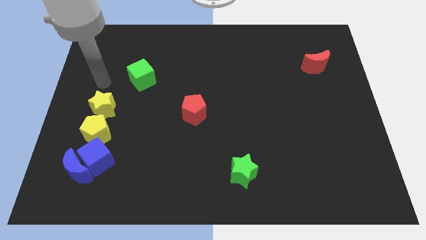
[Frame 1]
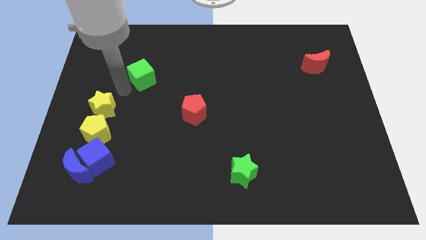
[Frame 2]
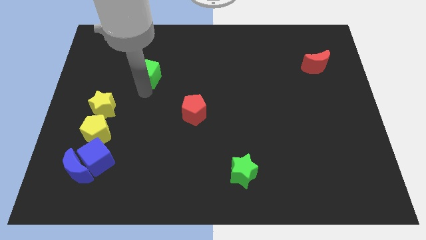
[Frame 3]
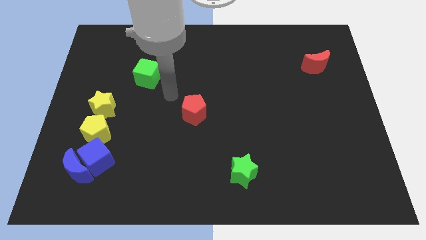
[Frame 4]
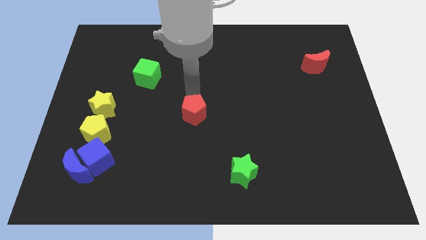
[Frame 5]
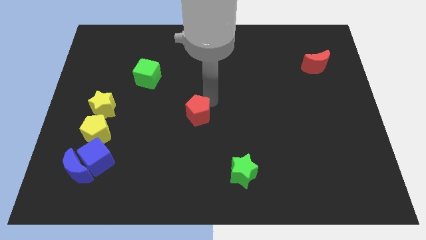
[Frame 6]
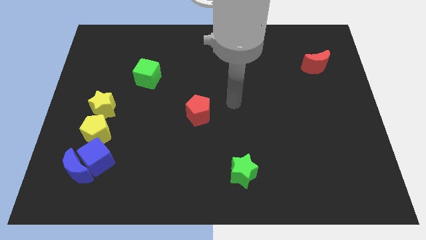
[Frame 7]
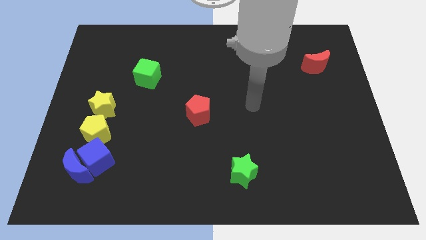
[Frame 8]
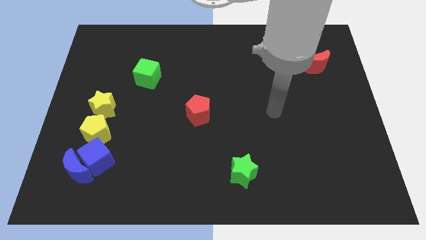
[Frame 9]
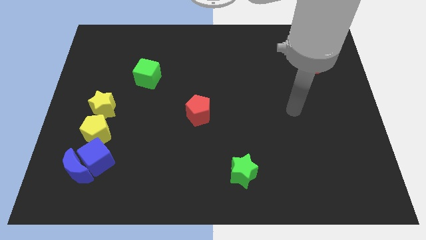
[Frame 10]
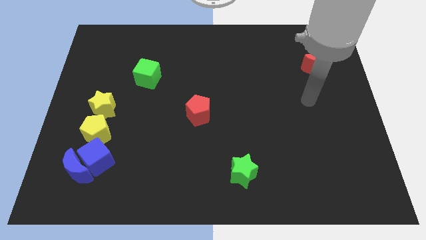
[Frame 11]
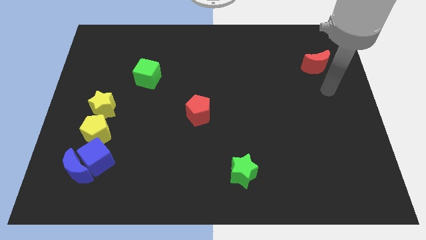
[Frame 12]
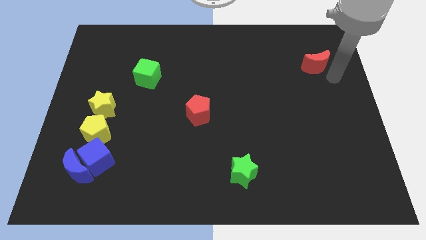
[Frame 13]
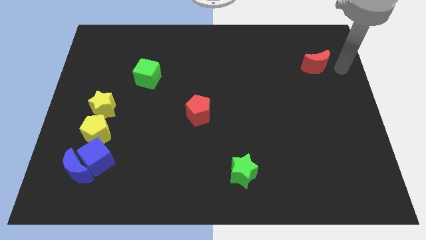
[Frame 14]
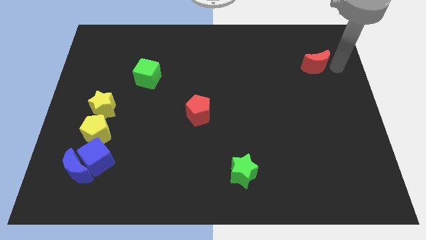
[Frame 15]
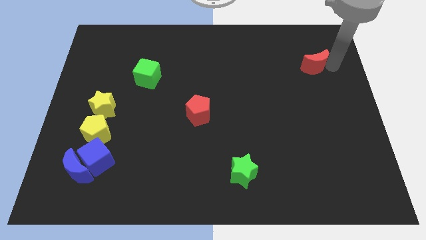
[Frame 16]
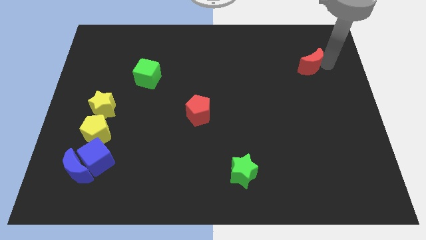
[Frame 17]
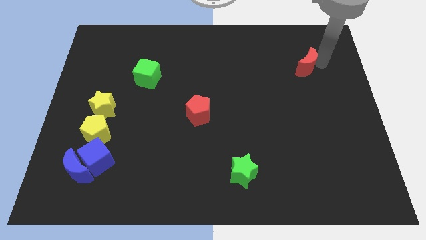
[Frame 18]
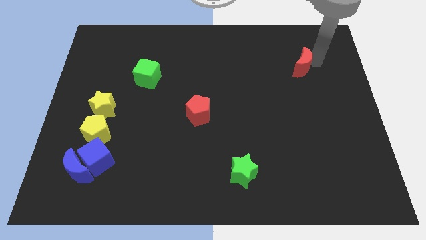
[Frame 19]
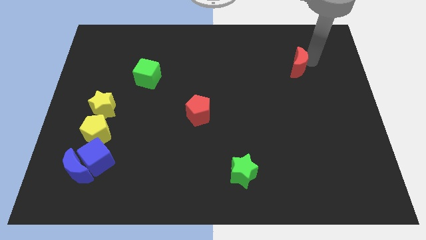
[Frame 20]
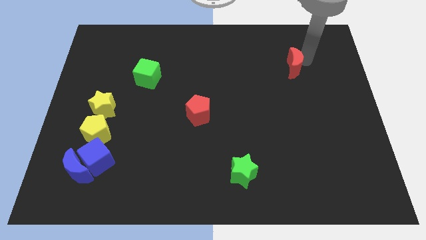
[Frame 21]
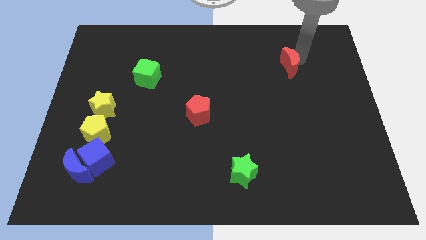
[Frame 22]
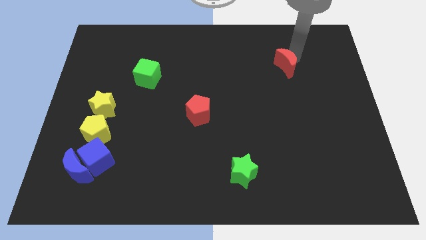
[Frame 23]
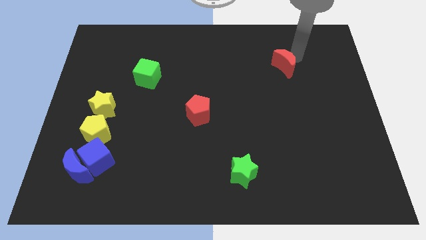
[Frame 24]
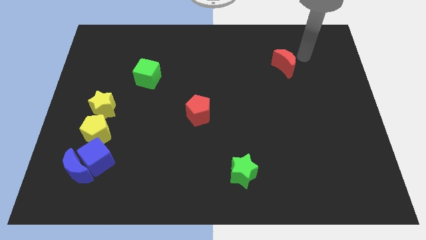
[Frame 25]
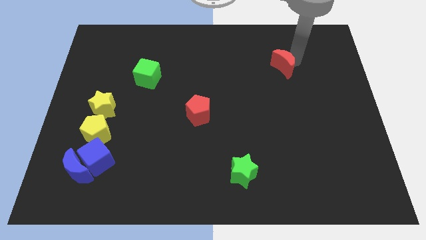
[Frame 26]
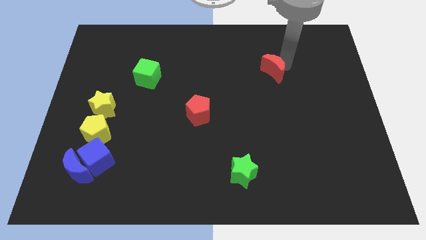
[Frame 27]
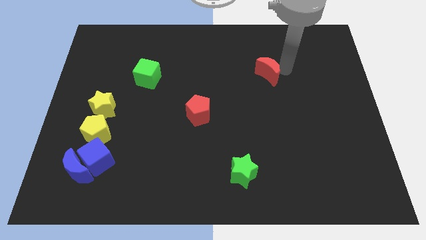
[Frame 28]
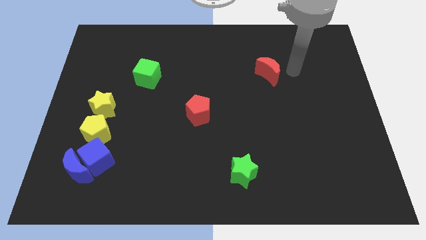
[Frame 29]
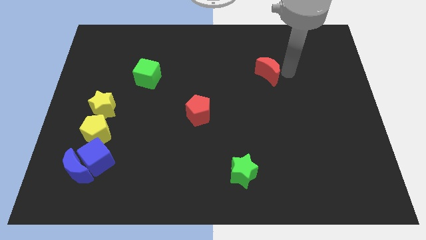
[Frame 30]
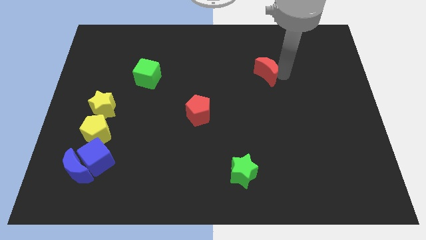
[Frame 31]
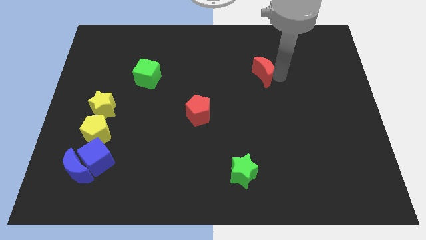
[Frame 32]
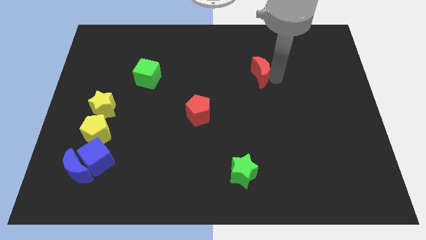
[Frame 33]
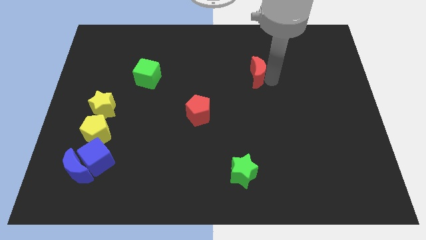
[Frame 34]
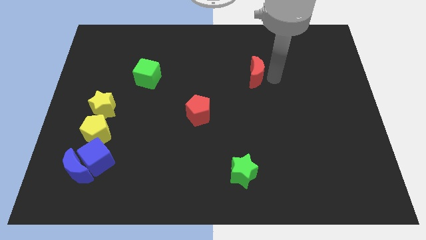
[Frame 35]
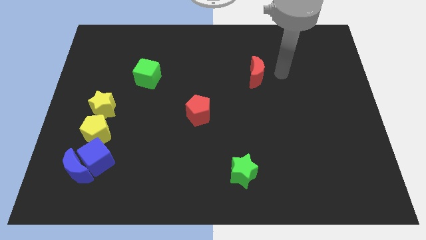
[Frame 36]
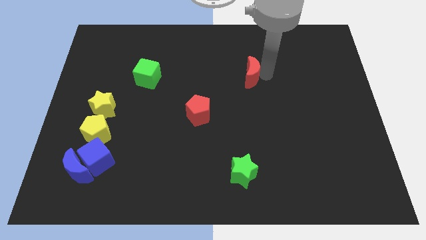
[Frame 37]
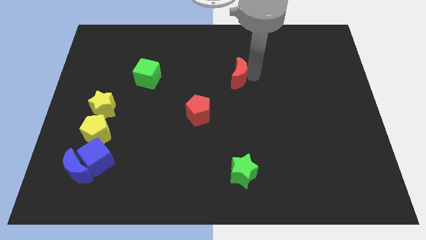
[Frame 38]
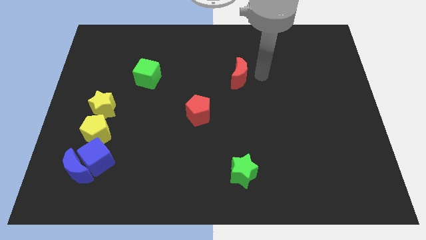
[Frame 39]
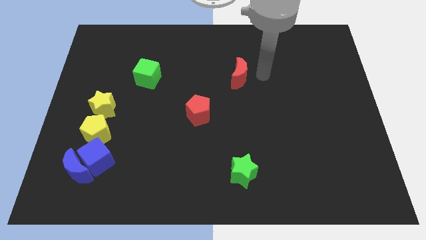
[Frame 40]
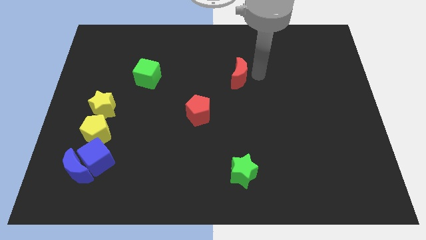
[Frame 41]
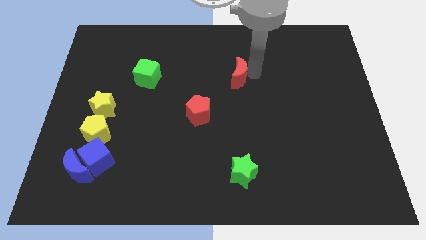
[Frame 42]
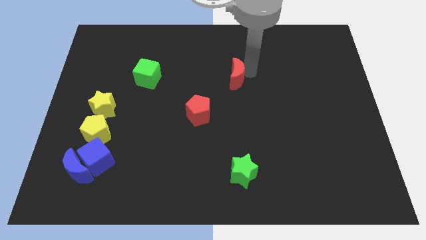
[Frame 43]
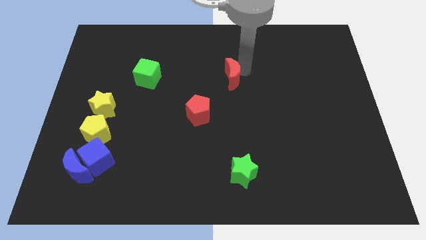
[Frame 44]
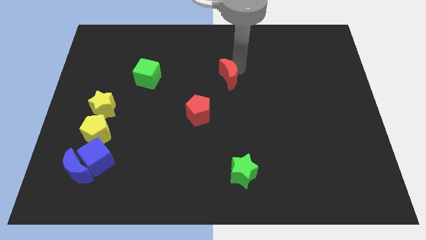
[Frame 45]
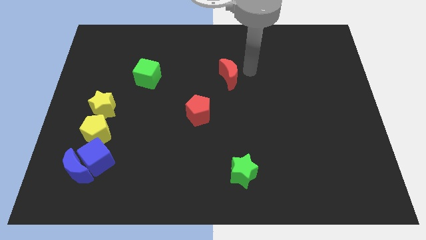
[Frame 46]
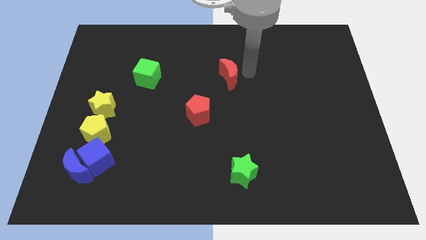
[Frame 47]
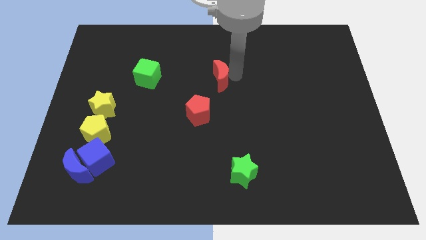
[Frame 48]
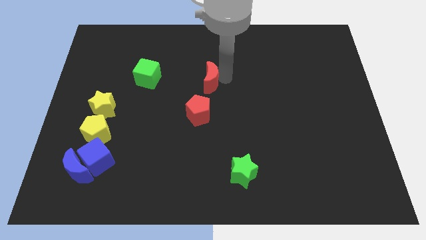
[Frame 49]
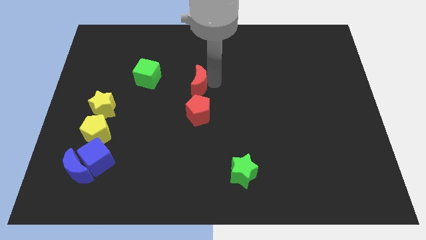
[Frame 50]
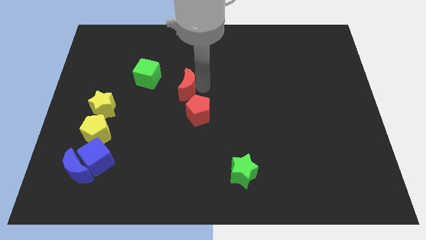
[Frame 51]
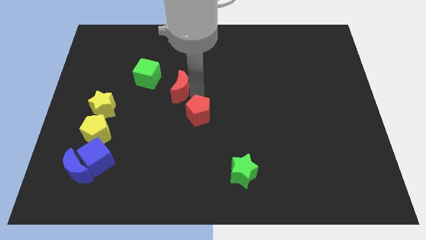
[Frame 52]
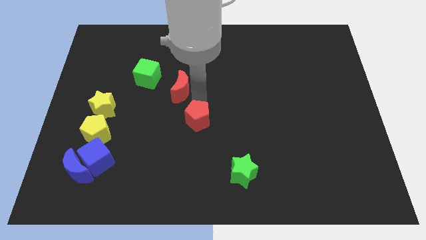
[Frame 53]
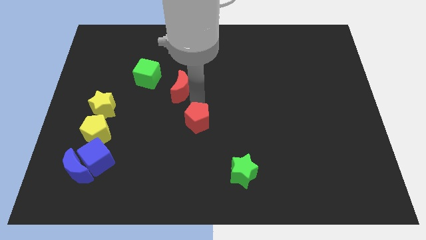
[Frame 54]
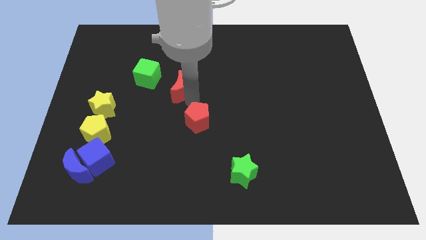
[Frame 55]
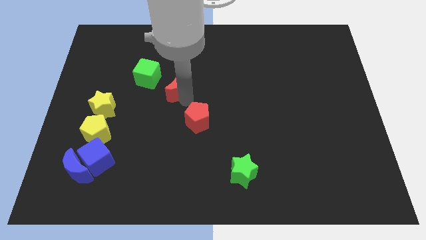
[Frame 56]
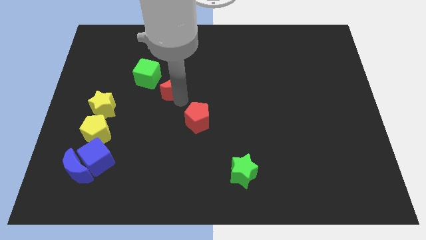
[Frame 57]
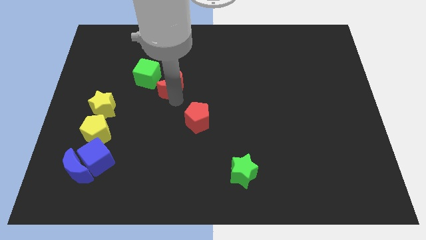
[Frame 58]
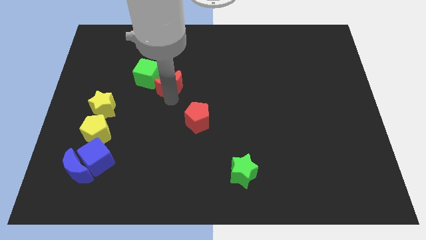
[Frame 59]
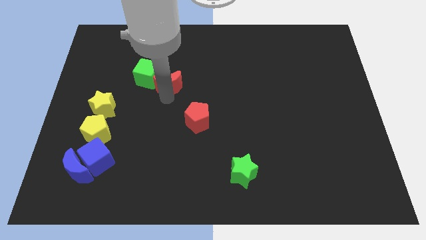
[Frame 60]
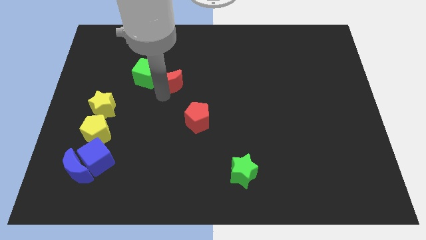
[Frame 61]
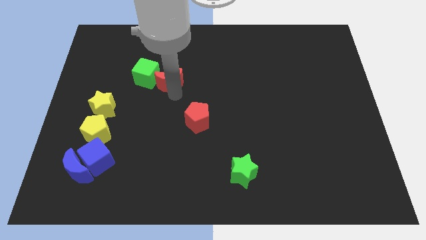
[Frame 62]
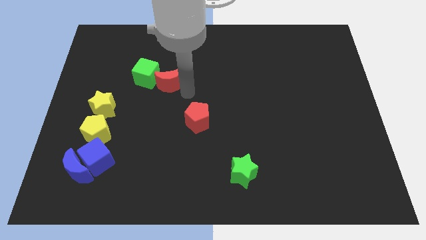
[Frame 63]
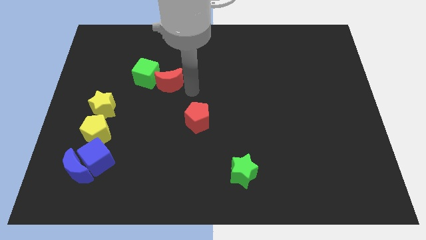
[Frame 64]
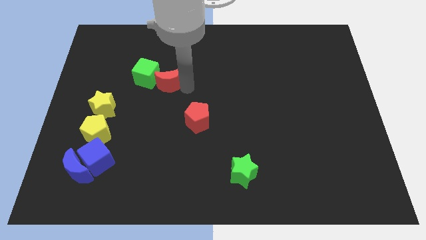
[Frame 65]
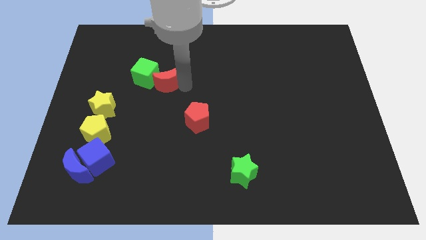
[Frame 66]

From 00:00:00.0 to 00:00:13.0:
slide the red moon close to the green cube

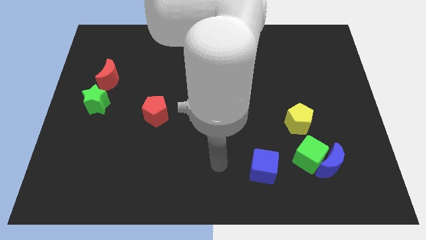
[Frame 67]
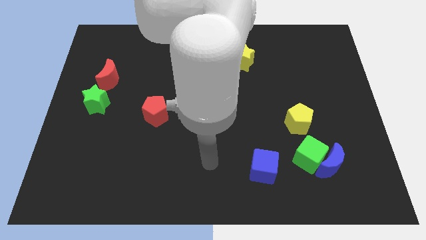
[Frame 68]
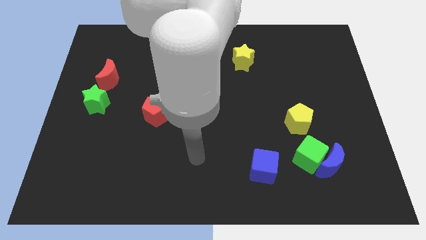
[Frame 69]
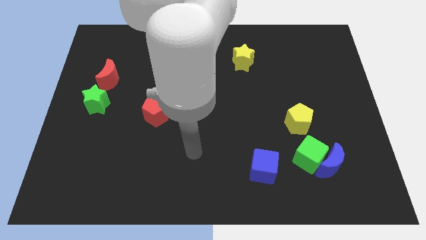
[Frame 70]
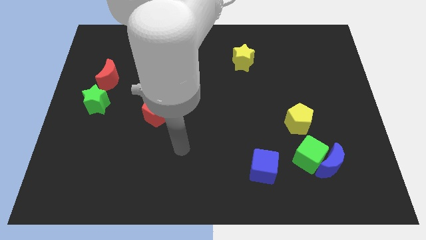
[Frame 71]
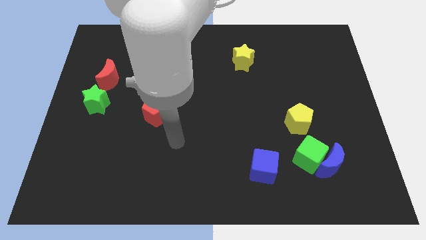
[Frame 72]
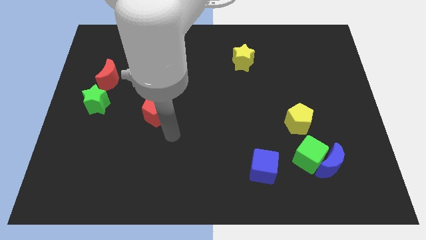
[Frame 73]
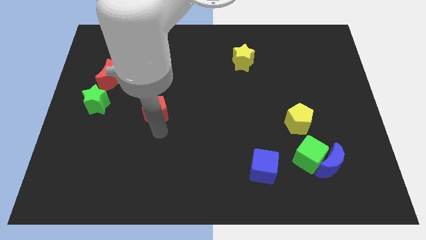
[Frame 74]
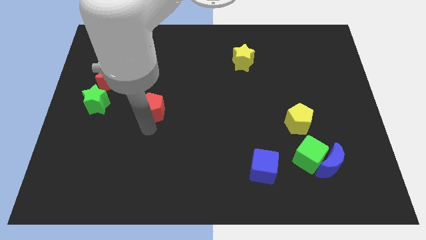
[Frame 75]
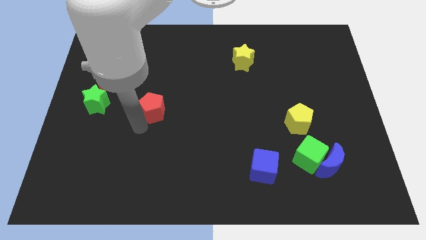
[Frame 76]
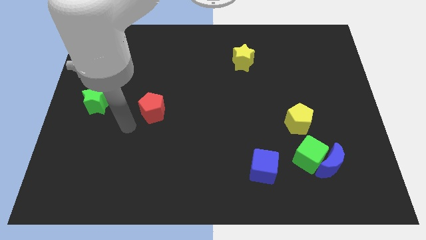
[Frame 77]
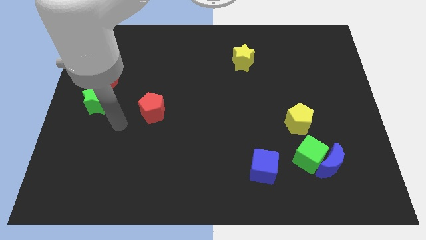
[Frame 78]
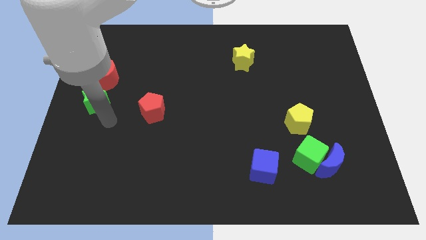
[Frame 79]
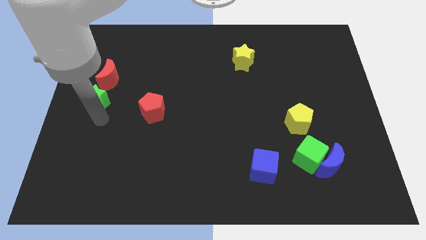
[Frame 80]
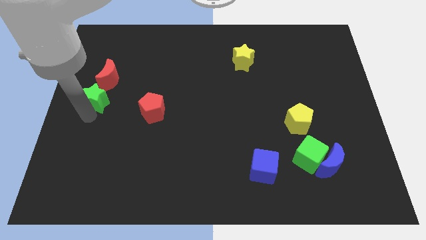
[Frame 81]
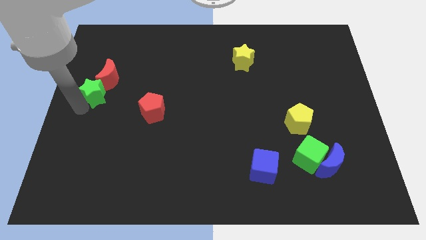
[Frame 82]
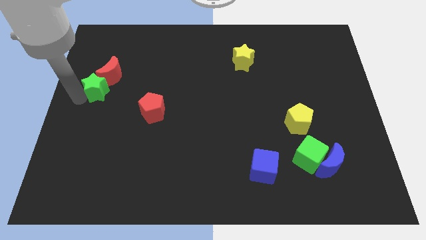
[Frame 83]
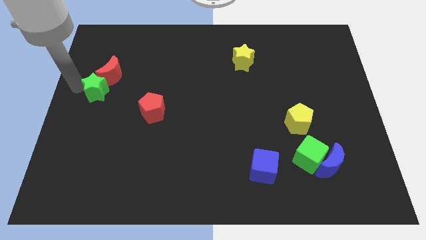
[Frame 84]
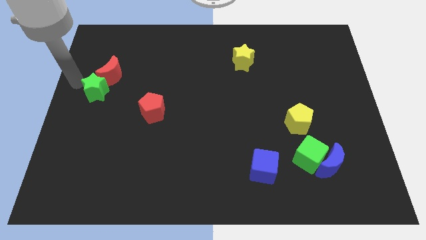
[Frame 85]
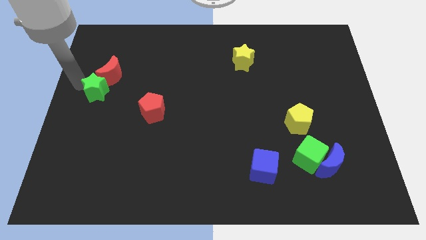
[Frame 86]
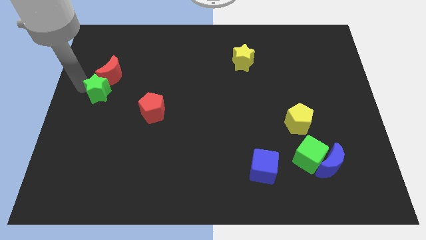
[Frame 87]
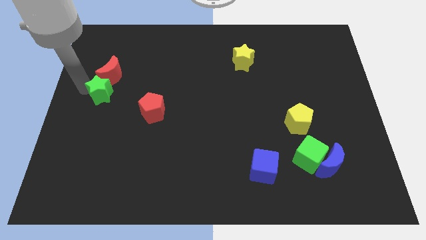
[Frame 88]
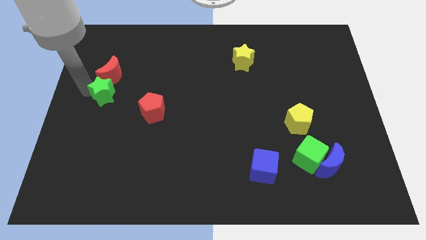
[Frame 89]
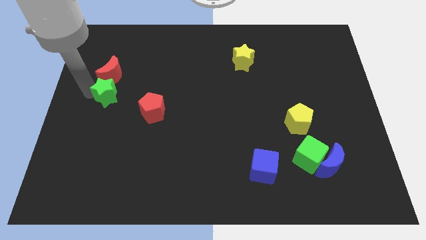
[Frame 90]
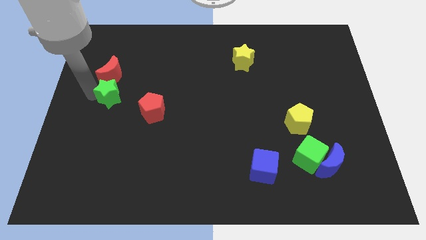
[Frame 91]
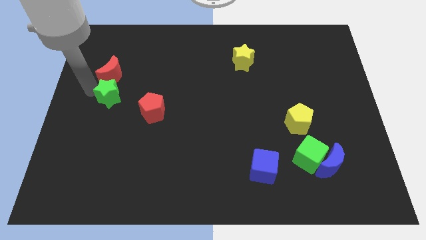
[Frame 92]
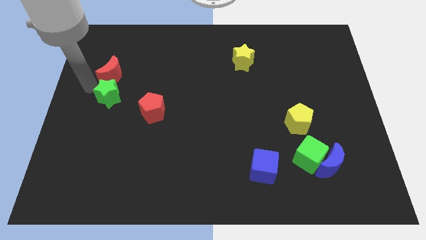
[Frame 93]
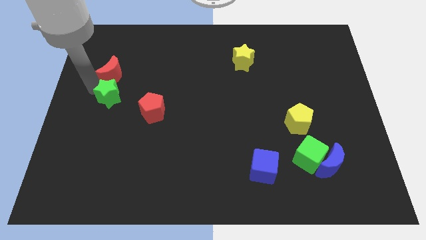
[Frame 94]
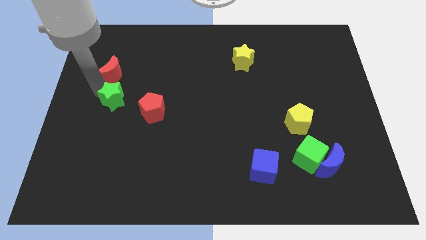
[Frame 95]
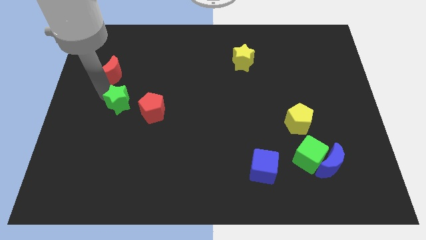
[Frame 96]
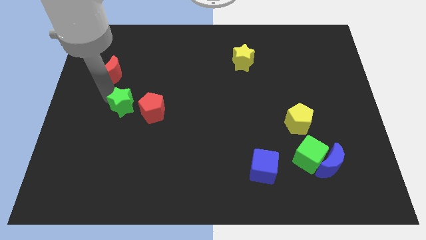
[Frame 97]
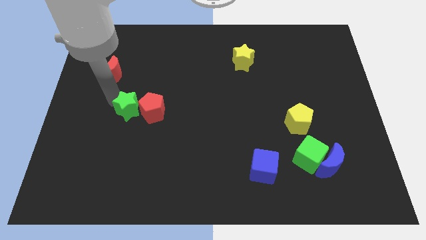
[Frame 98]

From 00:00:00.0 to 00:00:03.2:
slide the green star next to the red pentagon
